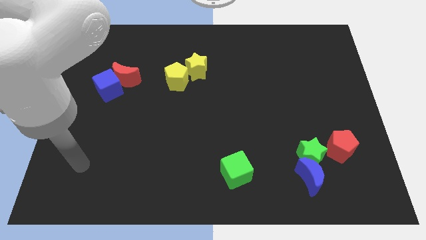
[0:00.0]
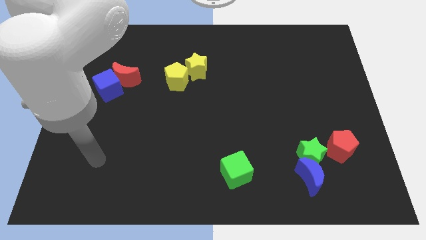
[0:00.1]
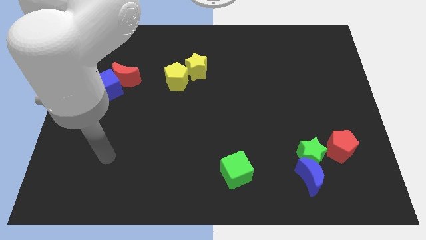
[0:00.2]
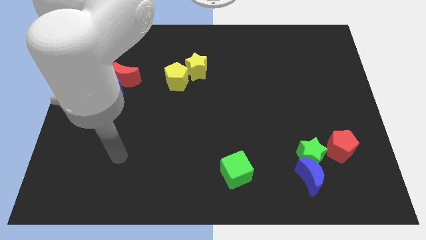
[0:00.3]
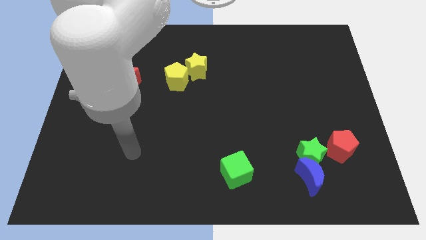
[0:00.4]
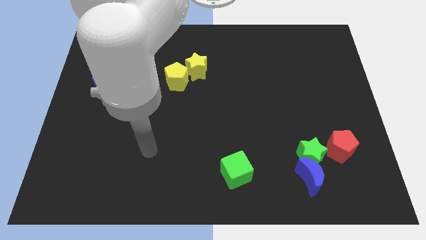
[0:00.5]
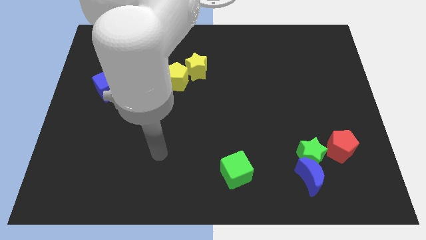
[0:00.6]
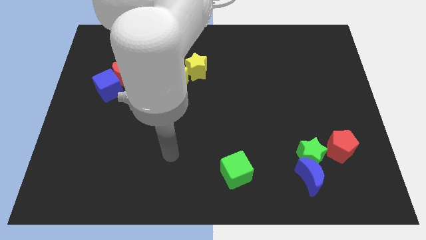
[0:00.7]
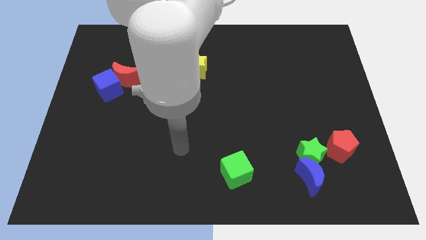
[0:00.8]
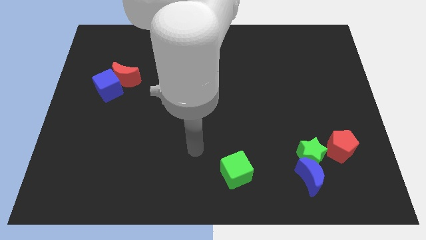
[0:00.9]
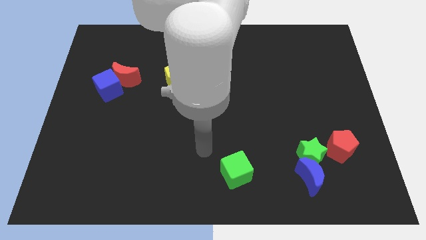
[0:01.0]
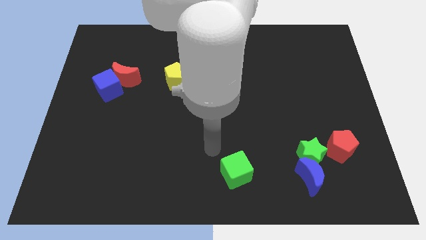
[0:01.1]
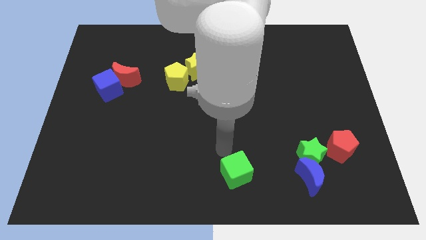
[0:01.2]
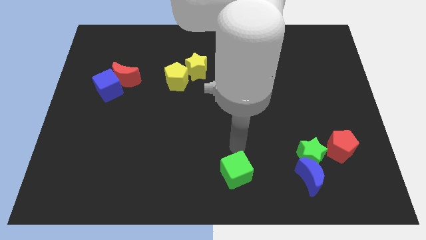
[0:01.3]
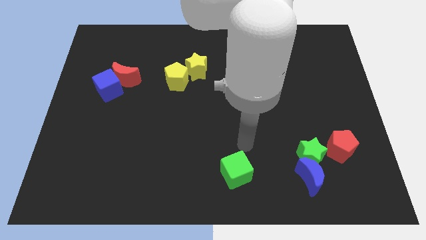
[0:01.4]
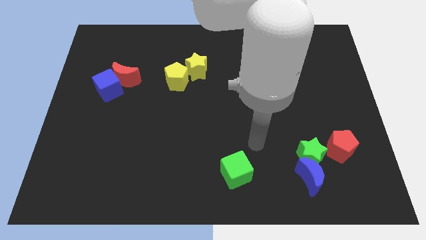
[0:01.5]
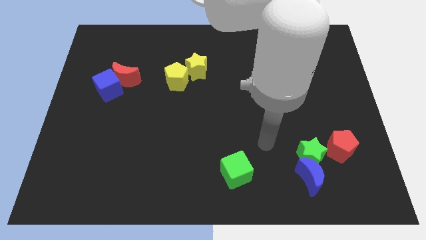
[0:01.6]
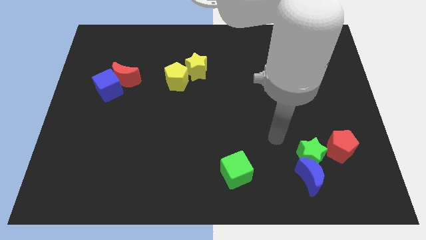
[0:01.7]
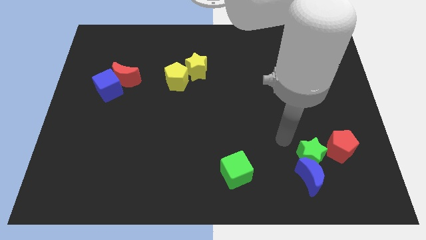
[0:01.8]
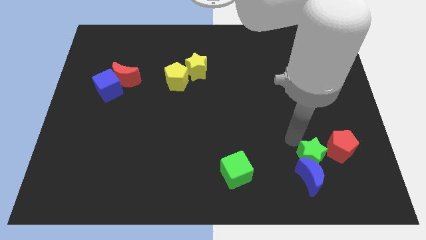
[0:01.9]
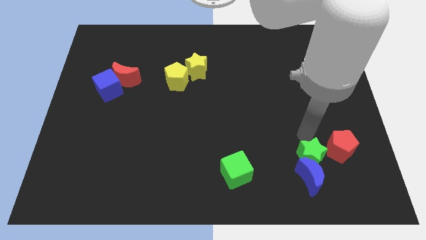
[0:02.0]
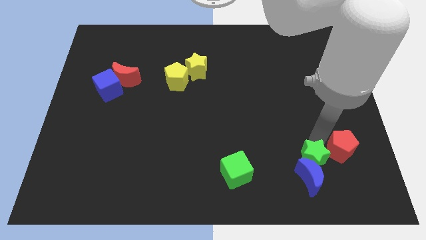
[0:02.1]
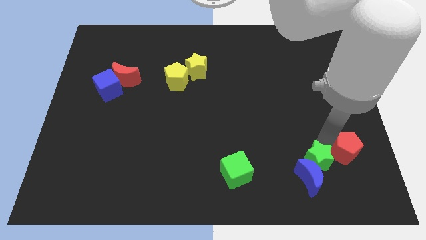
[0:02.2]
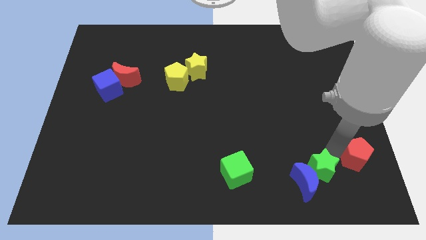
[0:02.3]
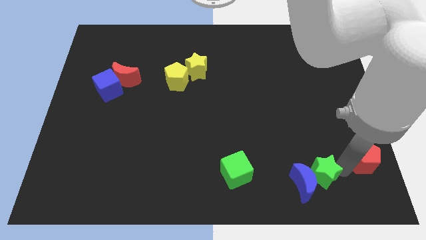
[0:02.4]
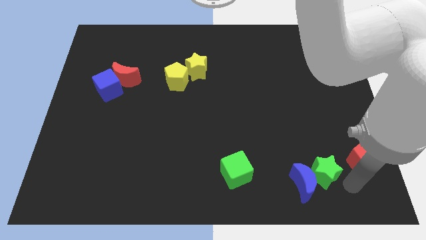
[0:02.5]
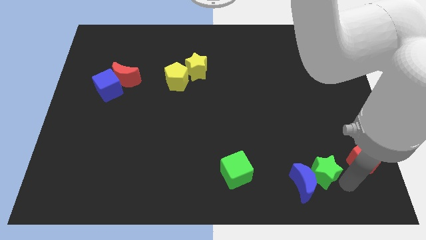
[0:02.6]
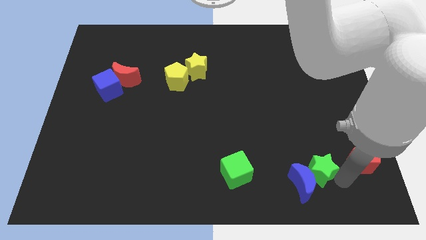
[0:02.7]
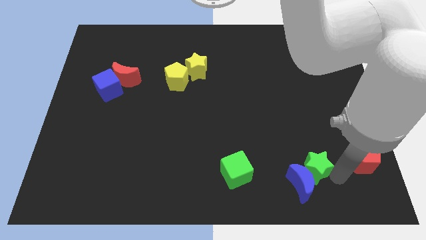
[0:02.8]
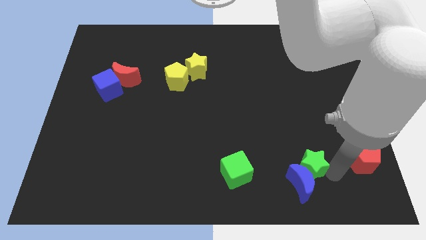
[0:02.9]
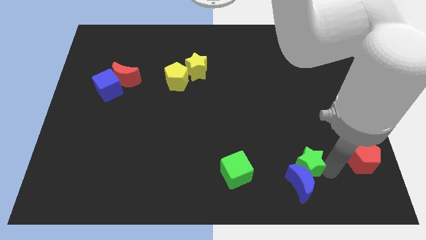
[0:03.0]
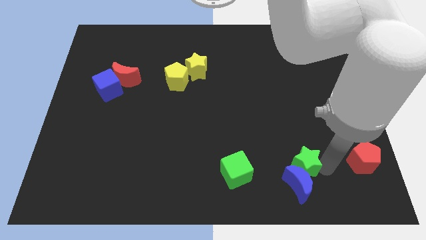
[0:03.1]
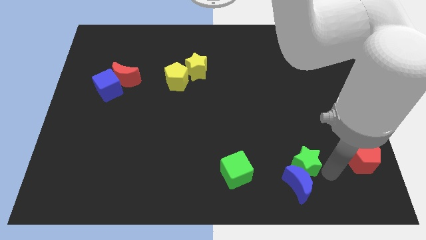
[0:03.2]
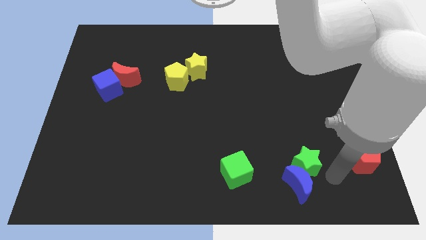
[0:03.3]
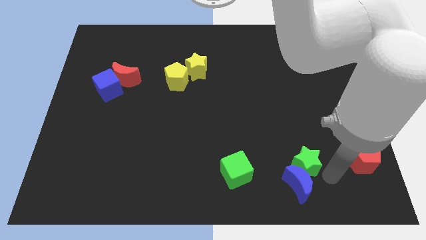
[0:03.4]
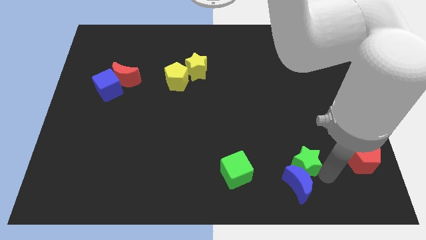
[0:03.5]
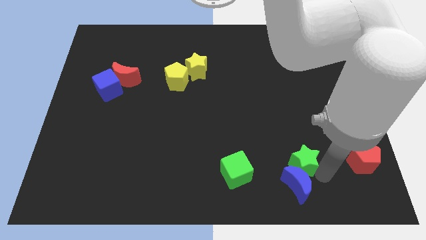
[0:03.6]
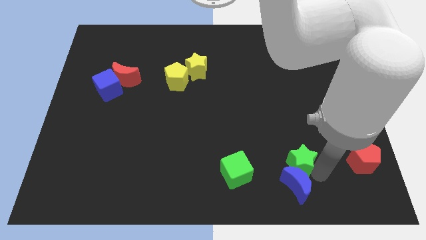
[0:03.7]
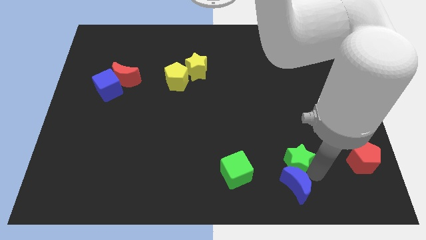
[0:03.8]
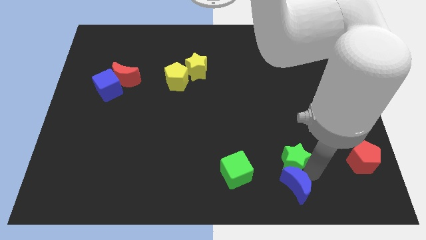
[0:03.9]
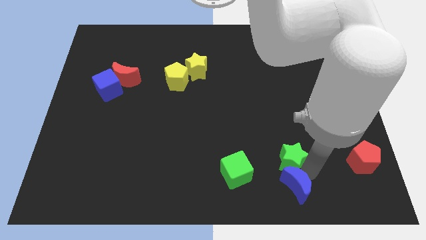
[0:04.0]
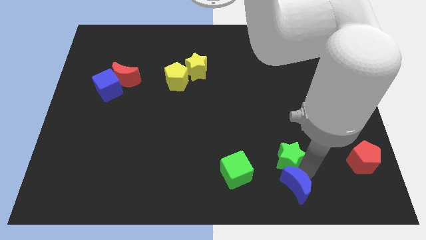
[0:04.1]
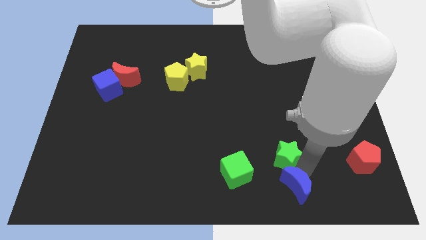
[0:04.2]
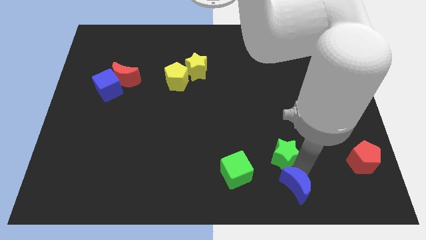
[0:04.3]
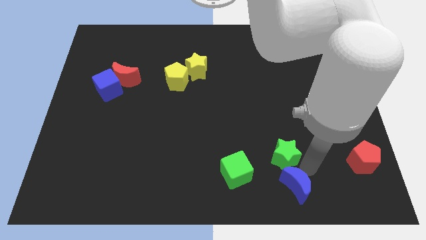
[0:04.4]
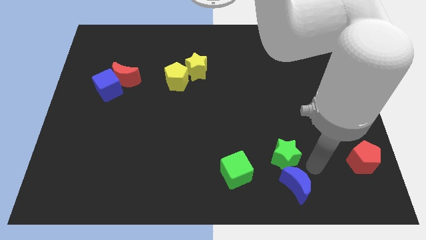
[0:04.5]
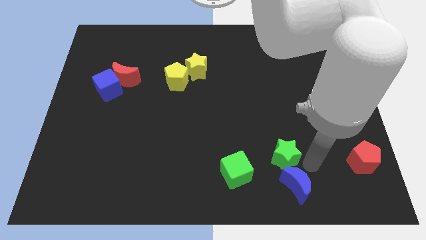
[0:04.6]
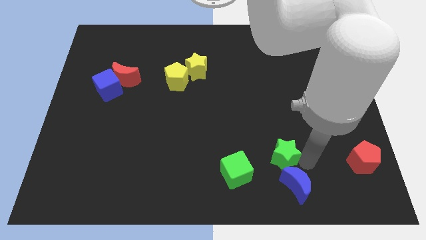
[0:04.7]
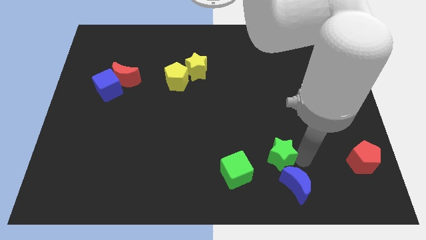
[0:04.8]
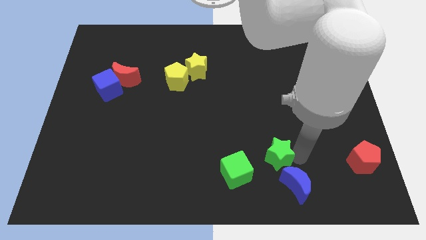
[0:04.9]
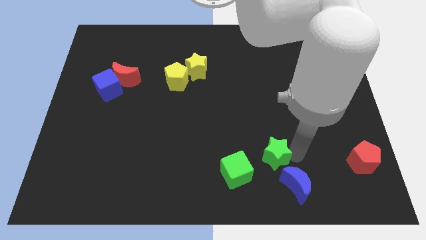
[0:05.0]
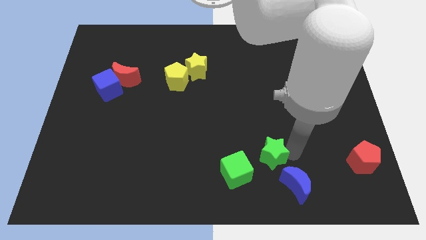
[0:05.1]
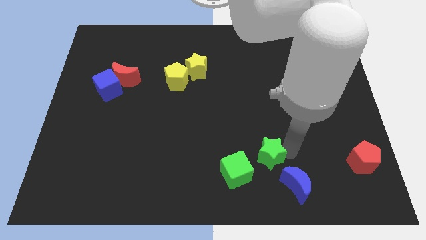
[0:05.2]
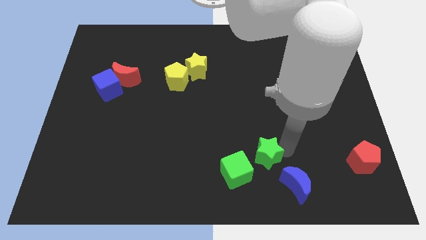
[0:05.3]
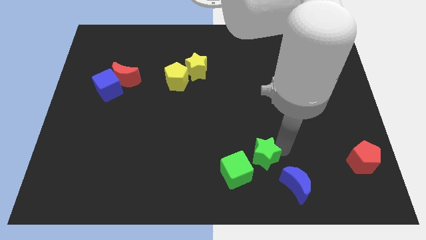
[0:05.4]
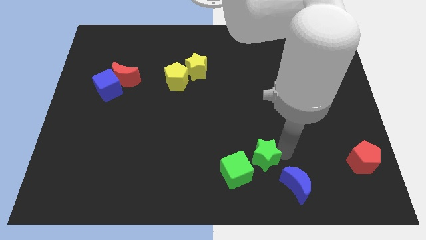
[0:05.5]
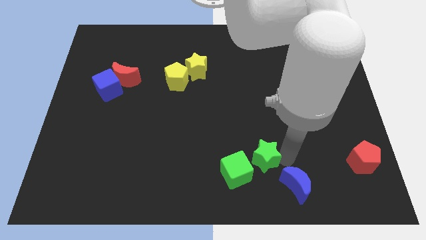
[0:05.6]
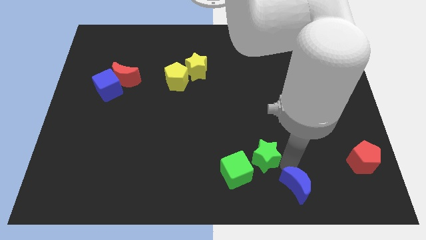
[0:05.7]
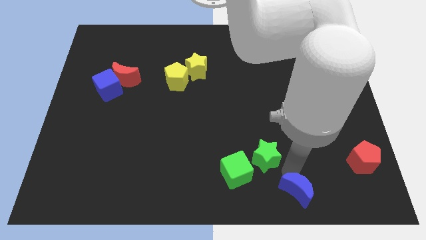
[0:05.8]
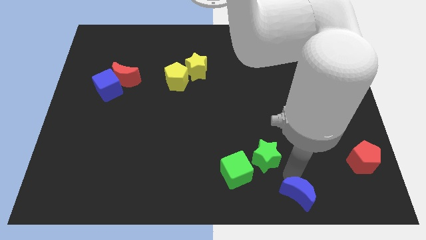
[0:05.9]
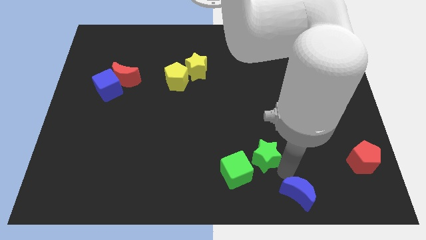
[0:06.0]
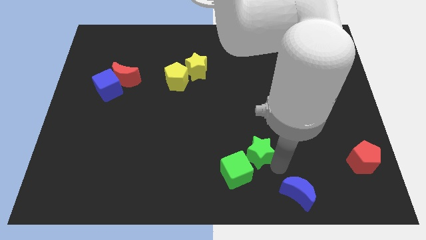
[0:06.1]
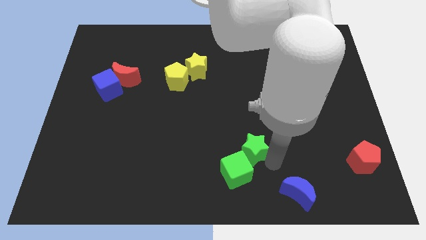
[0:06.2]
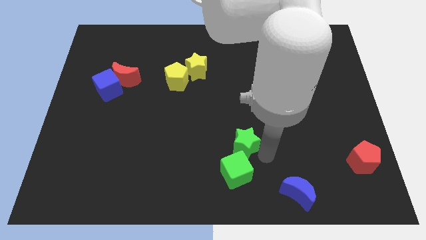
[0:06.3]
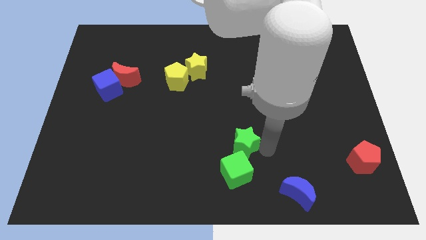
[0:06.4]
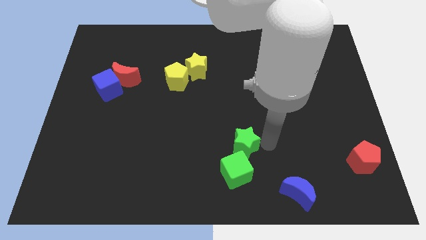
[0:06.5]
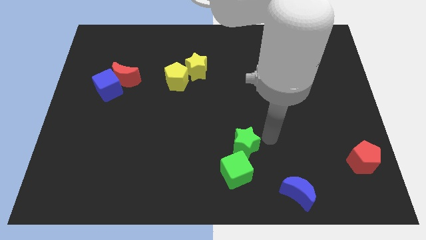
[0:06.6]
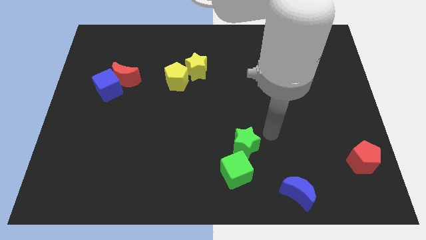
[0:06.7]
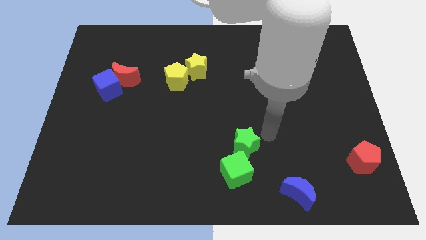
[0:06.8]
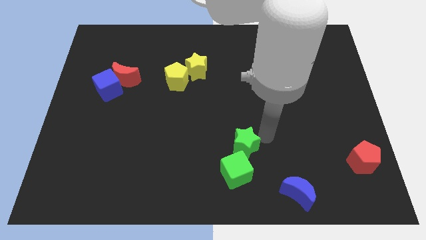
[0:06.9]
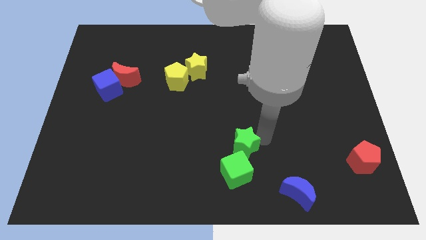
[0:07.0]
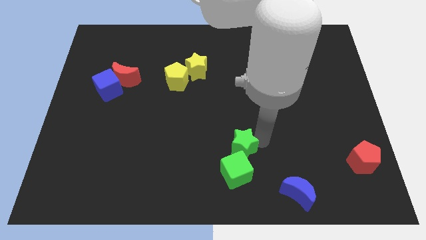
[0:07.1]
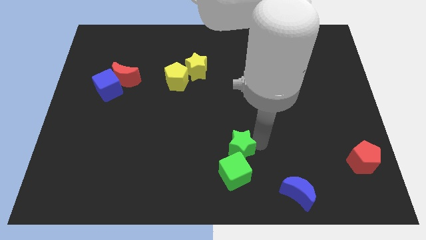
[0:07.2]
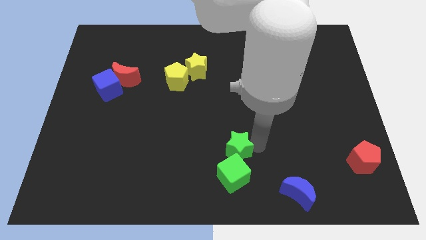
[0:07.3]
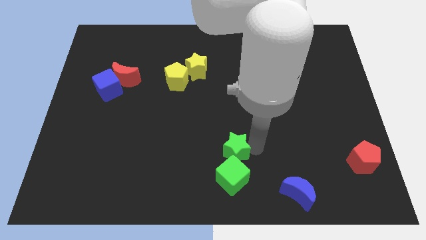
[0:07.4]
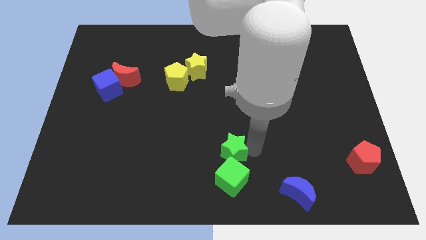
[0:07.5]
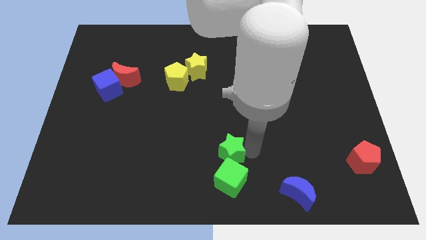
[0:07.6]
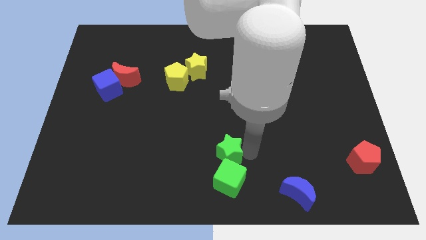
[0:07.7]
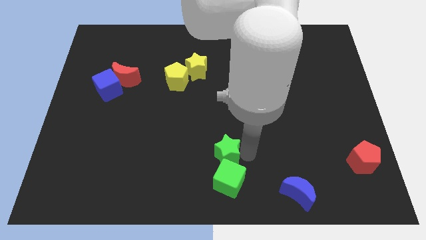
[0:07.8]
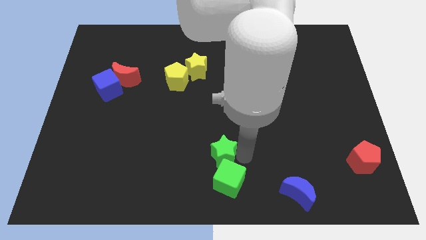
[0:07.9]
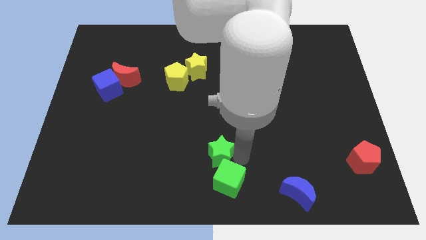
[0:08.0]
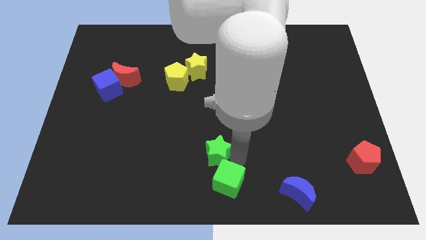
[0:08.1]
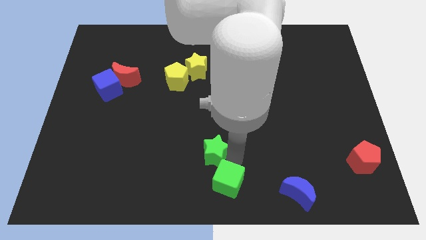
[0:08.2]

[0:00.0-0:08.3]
move the green star left
